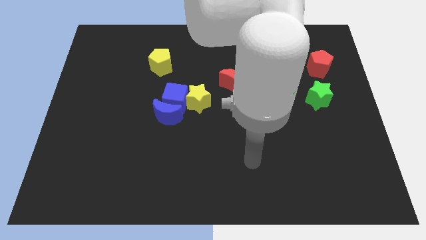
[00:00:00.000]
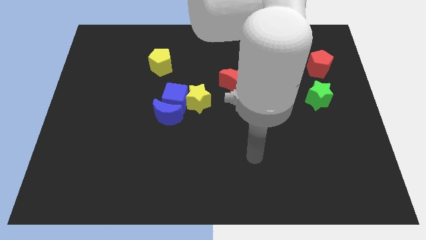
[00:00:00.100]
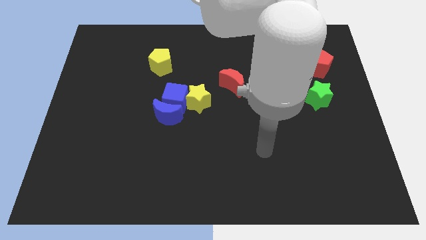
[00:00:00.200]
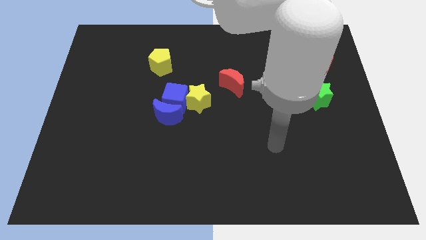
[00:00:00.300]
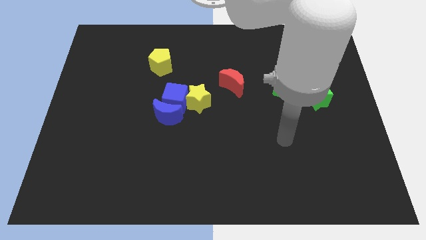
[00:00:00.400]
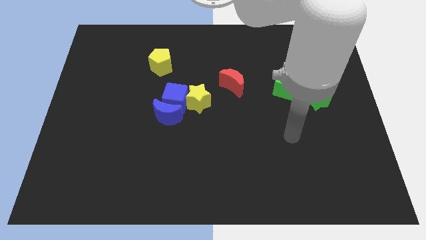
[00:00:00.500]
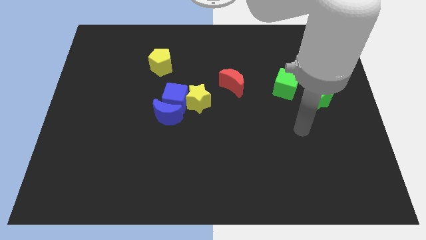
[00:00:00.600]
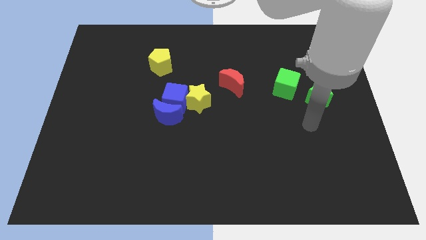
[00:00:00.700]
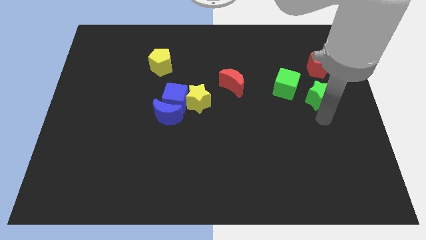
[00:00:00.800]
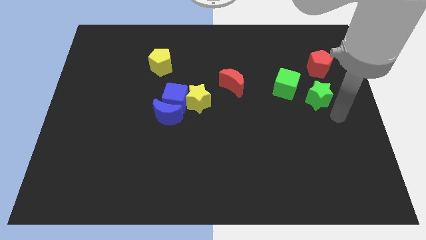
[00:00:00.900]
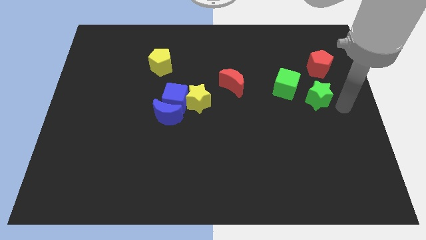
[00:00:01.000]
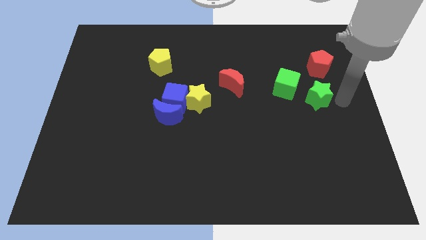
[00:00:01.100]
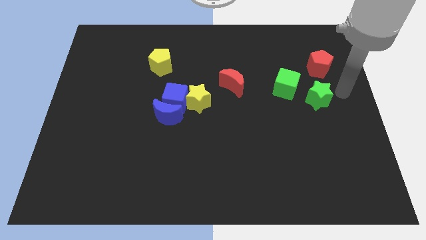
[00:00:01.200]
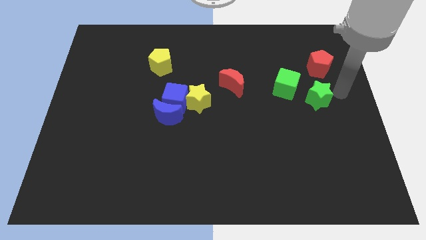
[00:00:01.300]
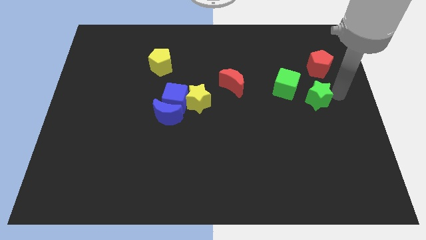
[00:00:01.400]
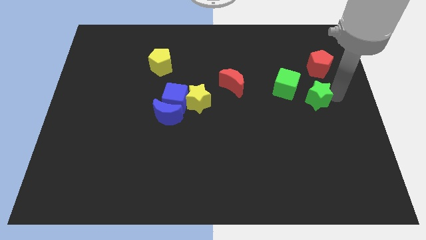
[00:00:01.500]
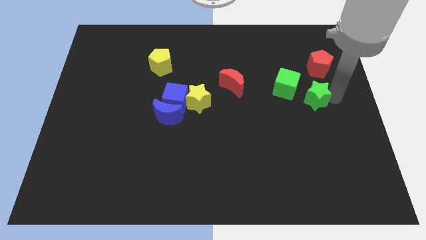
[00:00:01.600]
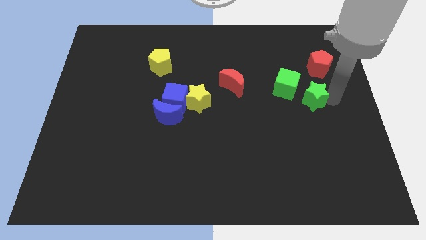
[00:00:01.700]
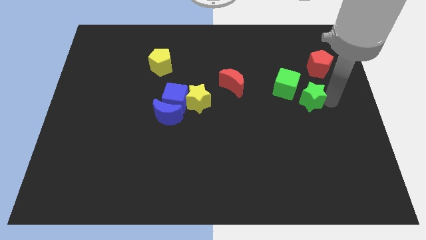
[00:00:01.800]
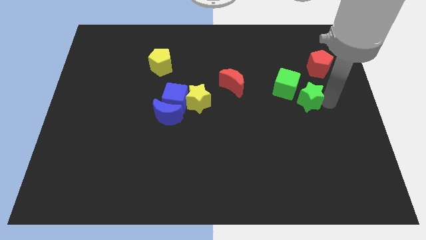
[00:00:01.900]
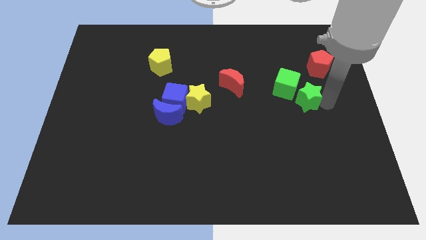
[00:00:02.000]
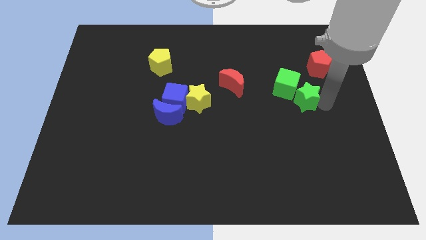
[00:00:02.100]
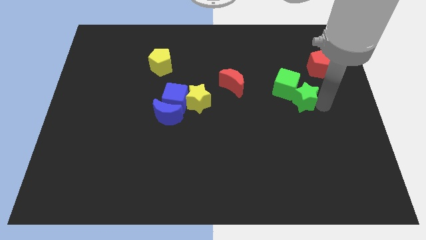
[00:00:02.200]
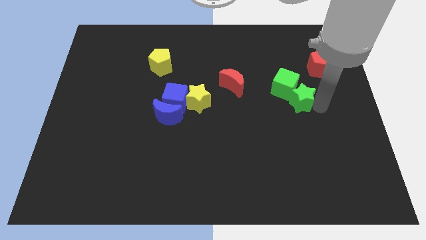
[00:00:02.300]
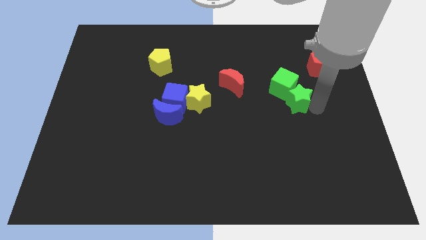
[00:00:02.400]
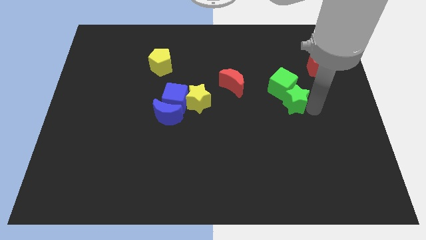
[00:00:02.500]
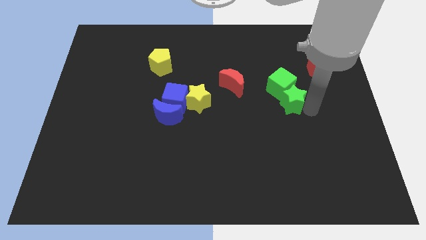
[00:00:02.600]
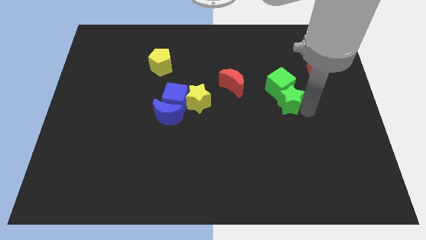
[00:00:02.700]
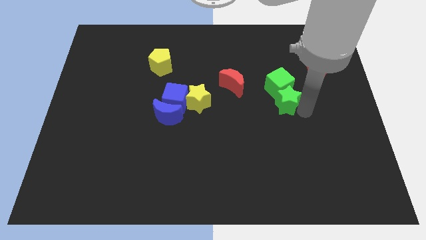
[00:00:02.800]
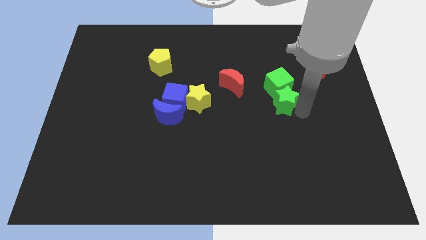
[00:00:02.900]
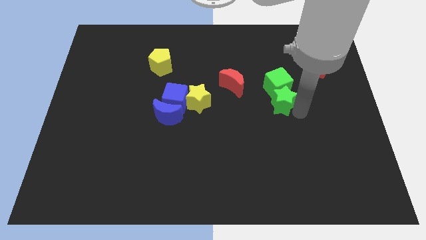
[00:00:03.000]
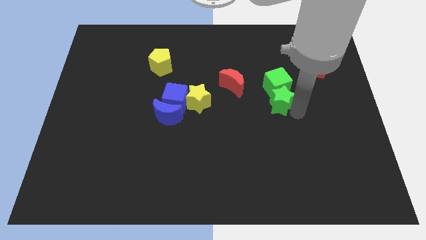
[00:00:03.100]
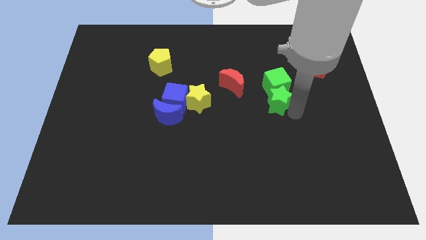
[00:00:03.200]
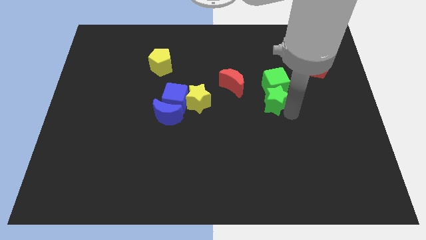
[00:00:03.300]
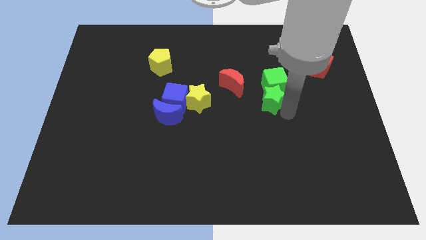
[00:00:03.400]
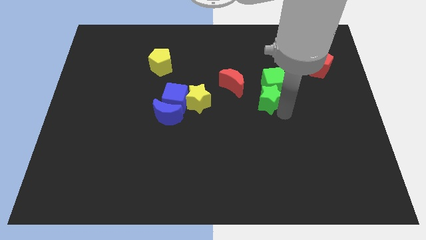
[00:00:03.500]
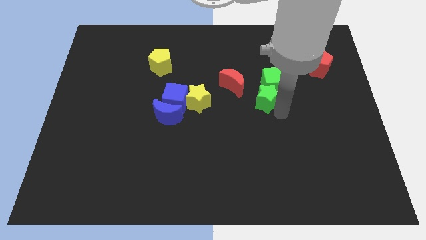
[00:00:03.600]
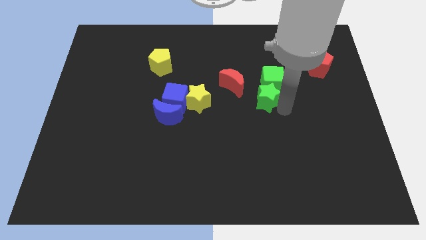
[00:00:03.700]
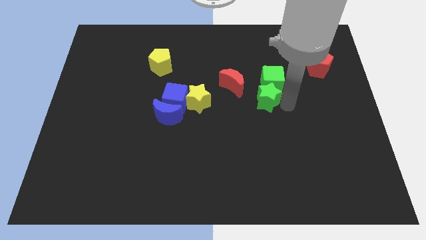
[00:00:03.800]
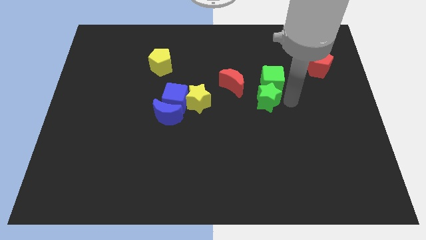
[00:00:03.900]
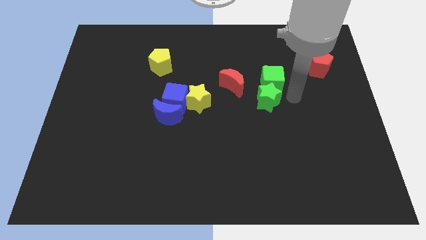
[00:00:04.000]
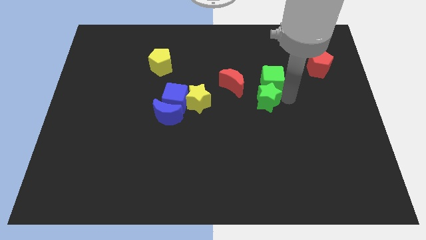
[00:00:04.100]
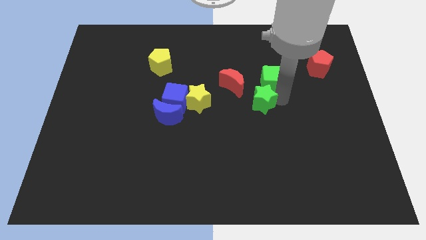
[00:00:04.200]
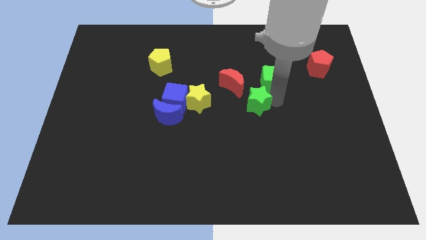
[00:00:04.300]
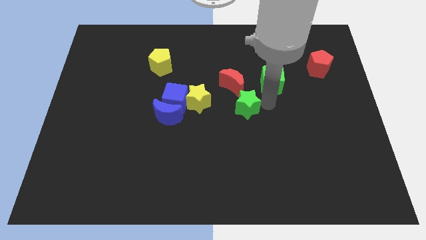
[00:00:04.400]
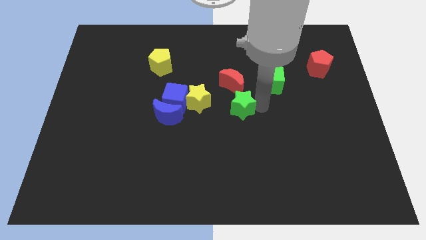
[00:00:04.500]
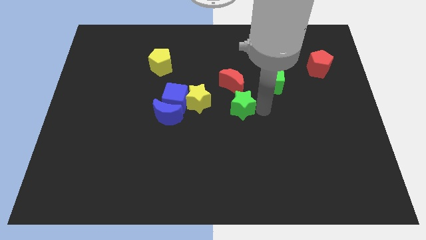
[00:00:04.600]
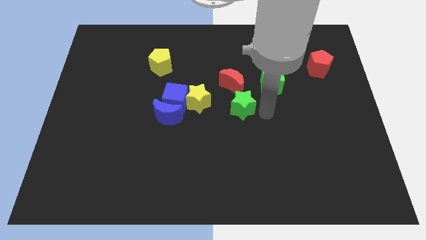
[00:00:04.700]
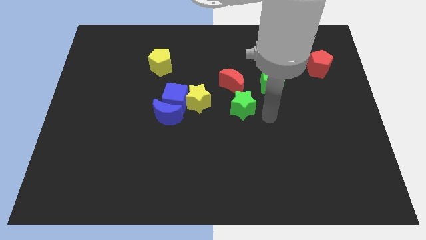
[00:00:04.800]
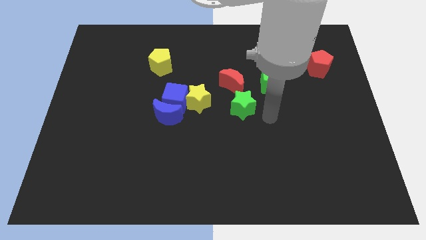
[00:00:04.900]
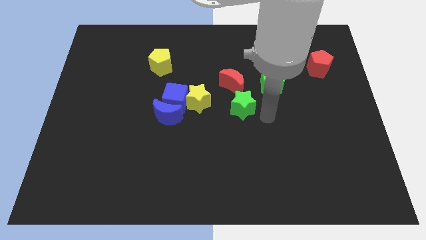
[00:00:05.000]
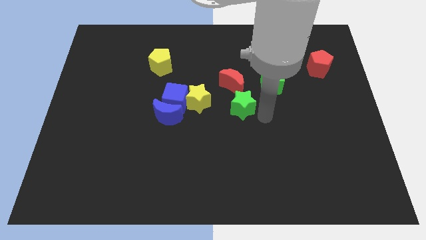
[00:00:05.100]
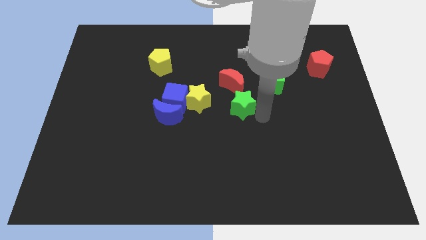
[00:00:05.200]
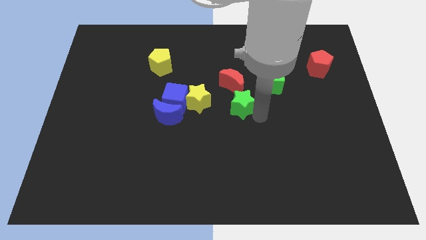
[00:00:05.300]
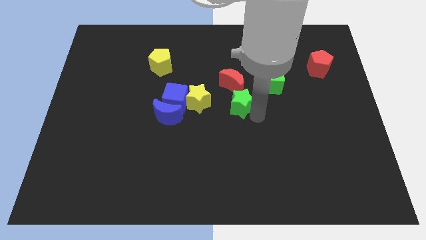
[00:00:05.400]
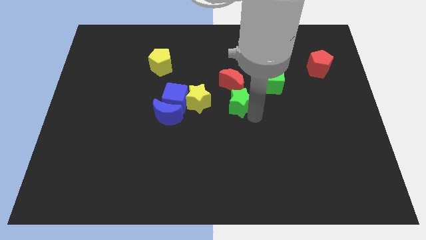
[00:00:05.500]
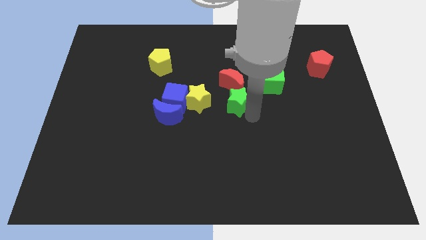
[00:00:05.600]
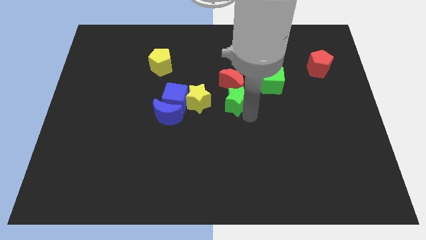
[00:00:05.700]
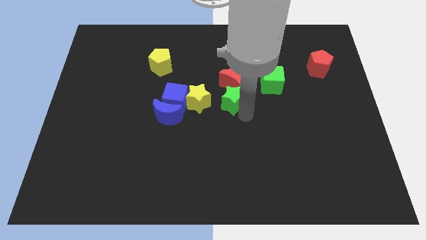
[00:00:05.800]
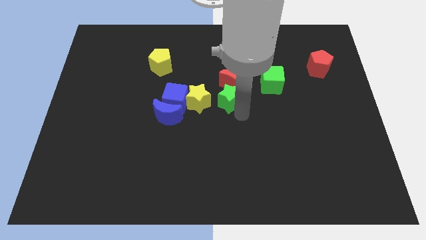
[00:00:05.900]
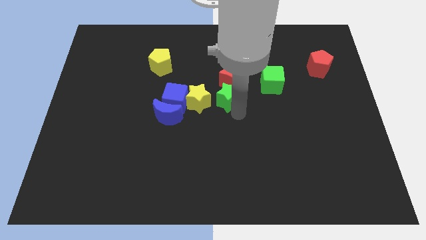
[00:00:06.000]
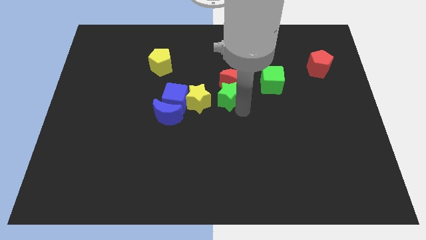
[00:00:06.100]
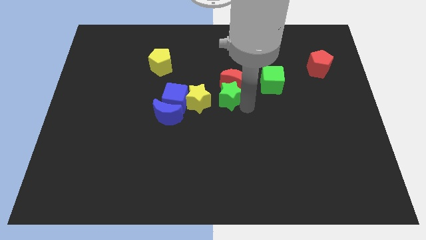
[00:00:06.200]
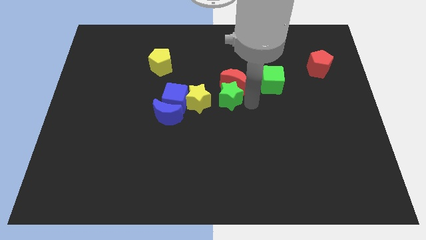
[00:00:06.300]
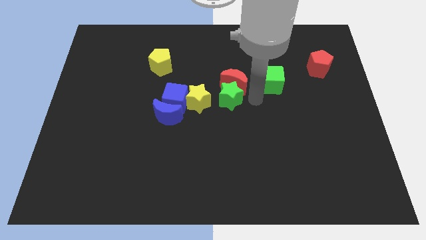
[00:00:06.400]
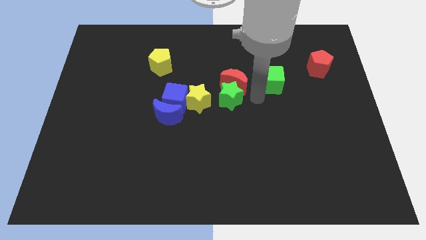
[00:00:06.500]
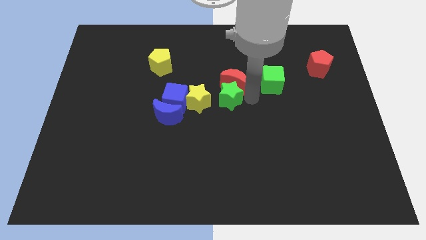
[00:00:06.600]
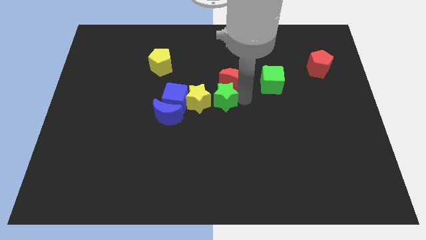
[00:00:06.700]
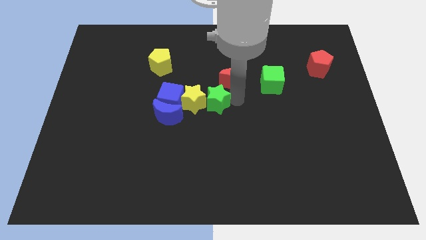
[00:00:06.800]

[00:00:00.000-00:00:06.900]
move the green star towards the yellow star

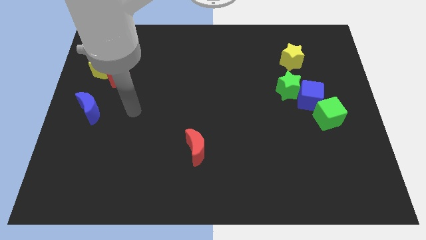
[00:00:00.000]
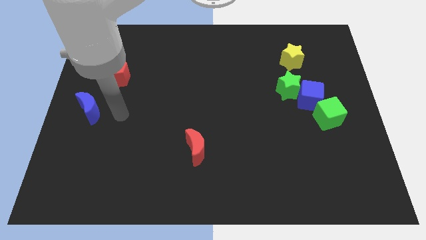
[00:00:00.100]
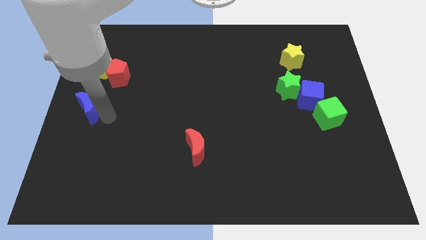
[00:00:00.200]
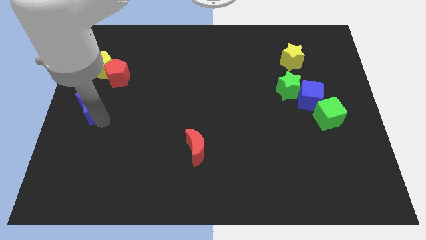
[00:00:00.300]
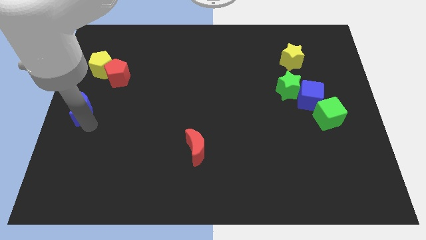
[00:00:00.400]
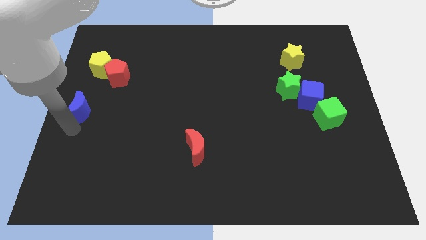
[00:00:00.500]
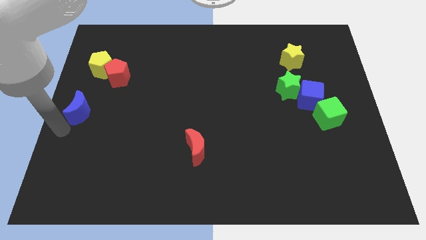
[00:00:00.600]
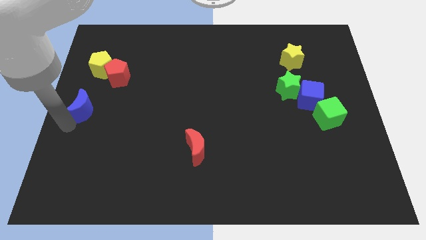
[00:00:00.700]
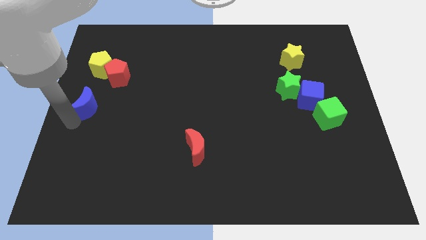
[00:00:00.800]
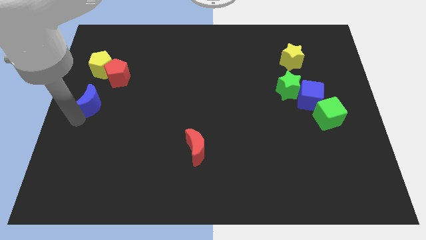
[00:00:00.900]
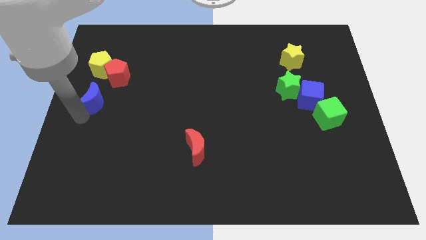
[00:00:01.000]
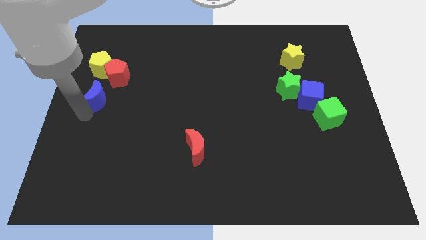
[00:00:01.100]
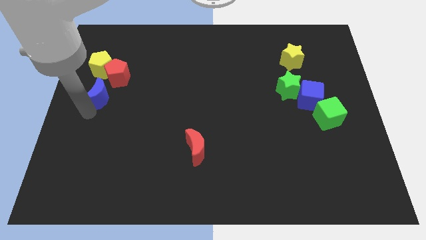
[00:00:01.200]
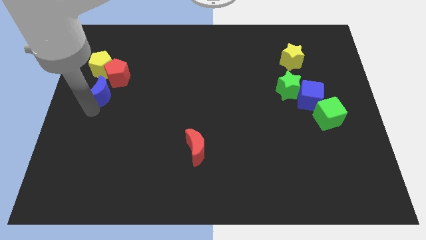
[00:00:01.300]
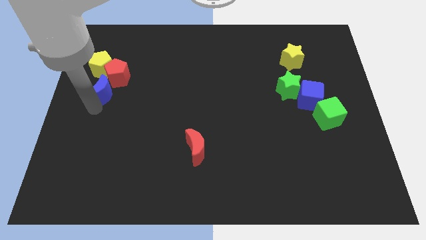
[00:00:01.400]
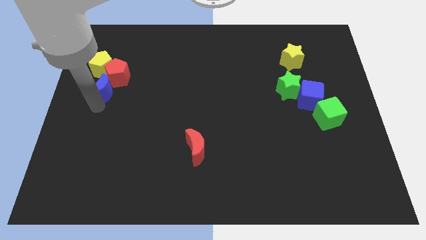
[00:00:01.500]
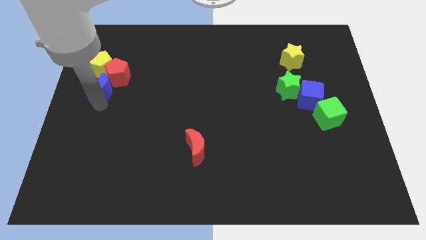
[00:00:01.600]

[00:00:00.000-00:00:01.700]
move the blue moon close to the red pentagon
